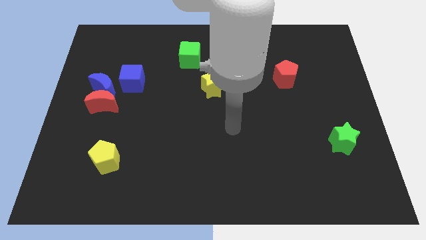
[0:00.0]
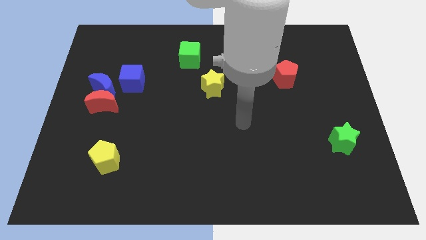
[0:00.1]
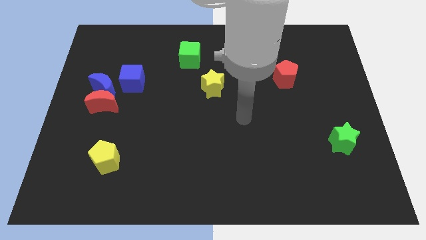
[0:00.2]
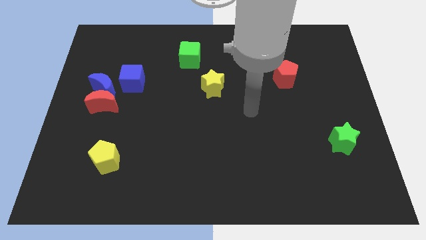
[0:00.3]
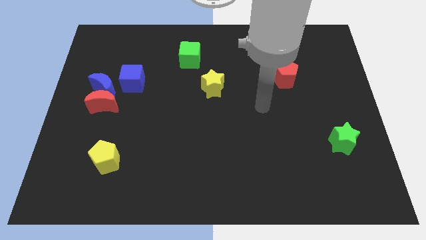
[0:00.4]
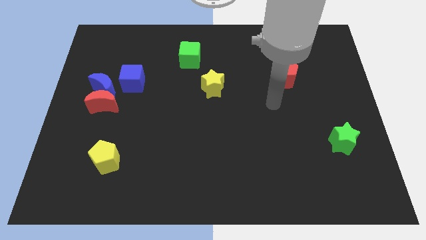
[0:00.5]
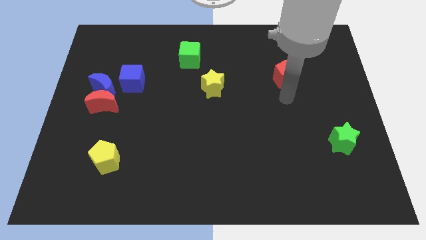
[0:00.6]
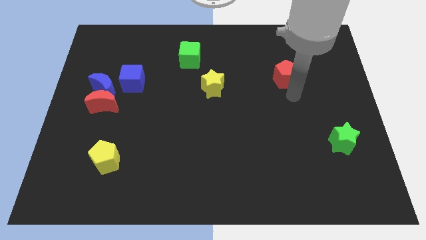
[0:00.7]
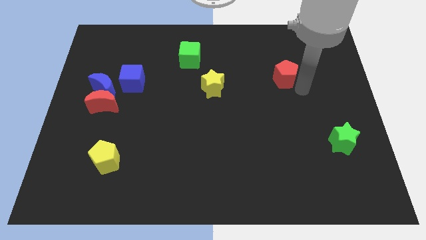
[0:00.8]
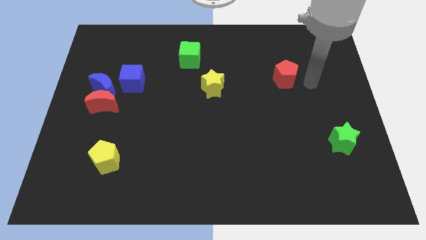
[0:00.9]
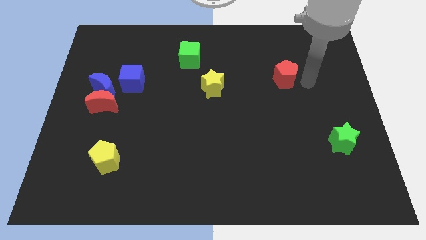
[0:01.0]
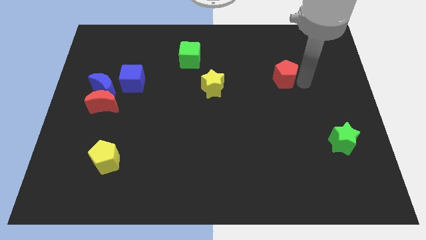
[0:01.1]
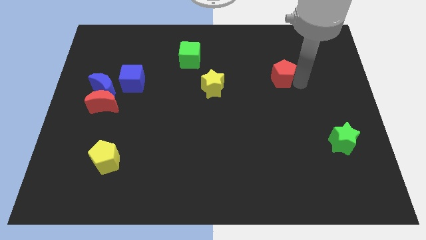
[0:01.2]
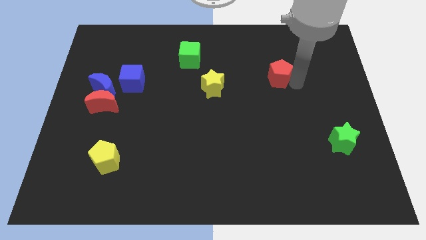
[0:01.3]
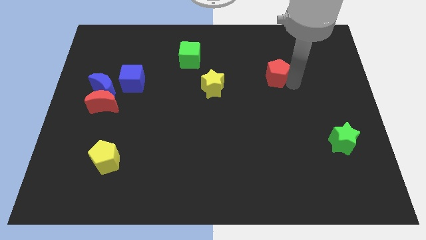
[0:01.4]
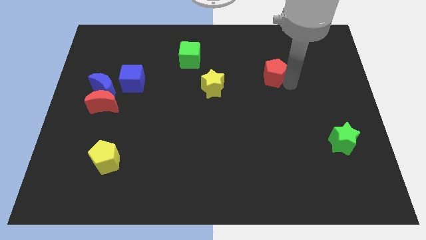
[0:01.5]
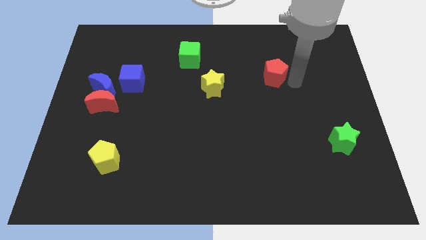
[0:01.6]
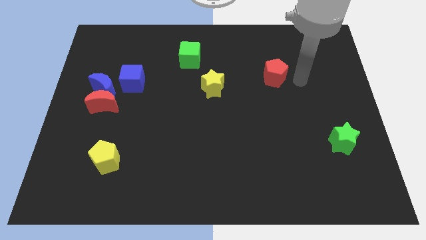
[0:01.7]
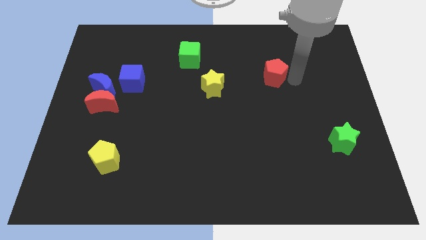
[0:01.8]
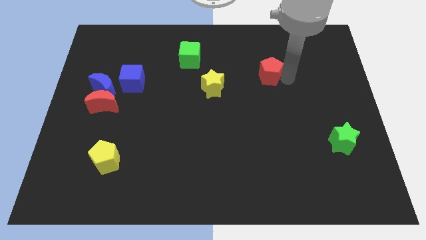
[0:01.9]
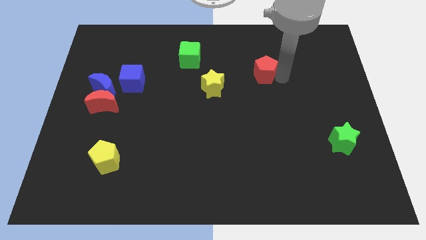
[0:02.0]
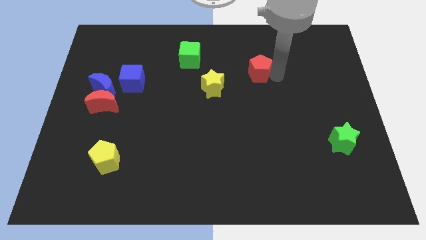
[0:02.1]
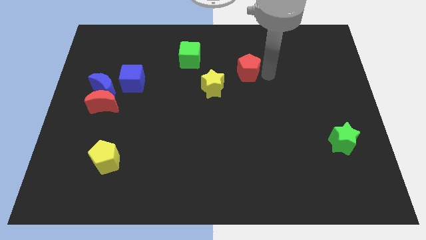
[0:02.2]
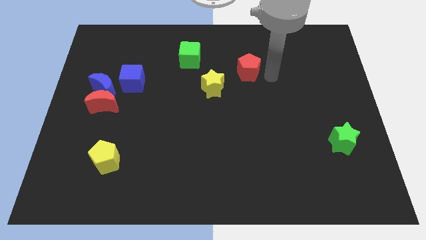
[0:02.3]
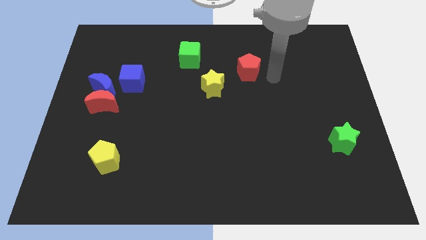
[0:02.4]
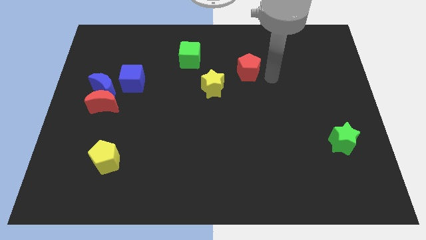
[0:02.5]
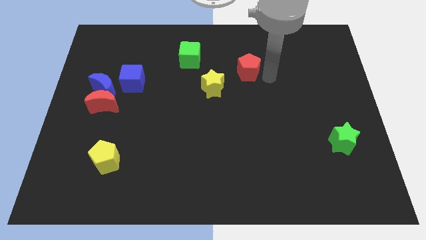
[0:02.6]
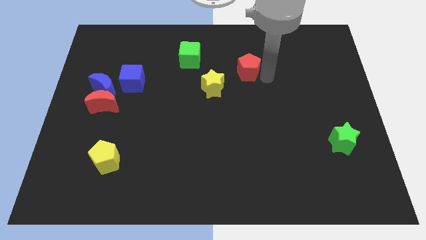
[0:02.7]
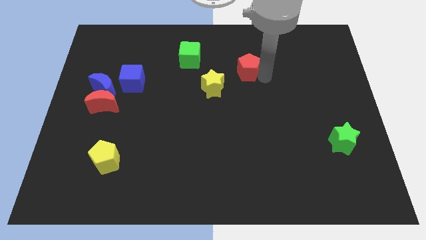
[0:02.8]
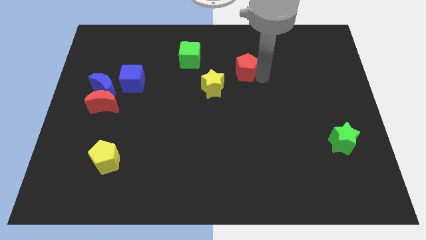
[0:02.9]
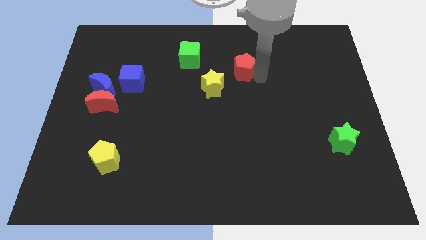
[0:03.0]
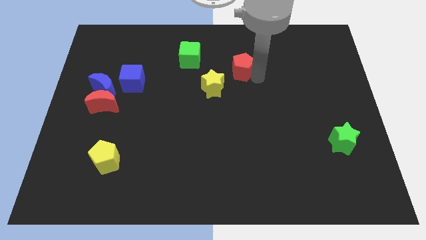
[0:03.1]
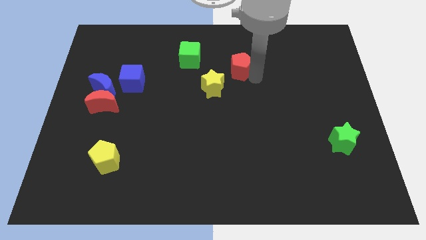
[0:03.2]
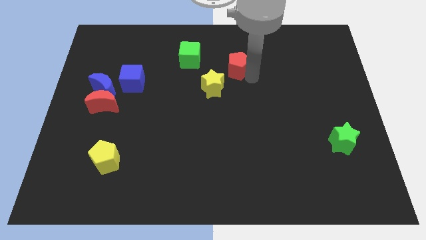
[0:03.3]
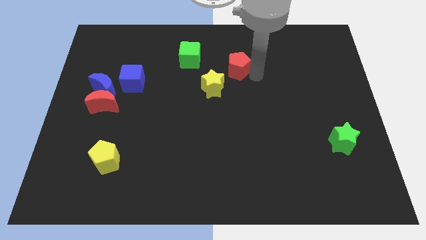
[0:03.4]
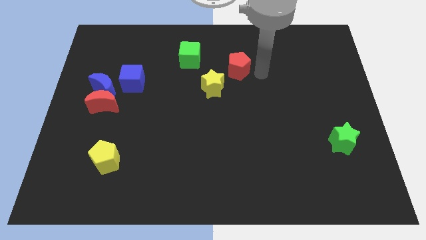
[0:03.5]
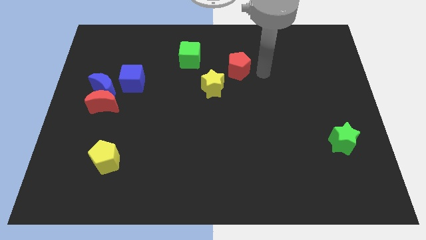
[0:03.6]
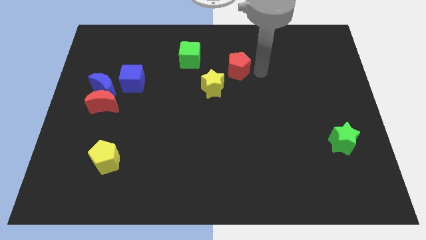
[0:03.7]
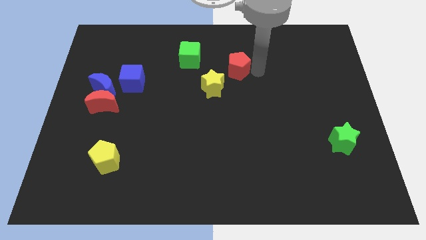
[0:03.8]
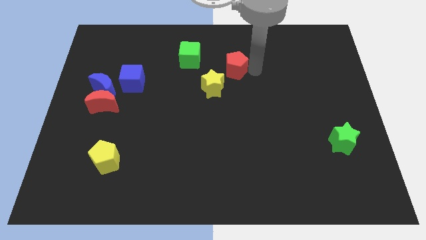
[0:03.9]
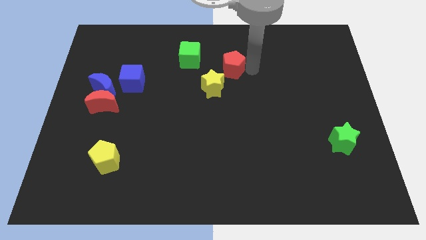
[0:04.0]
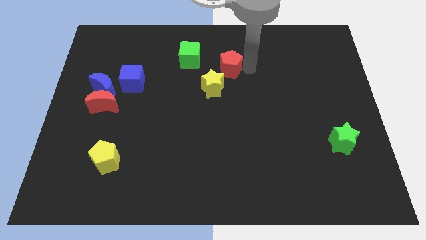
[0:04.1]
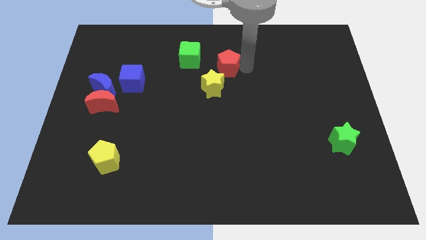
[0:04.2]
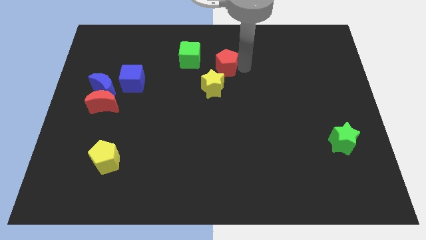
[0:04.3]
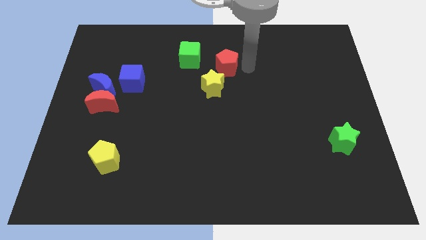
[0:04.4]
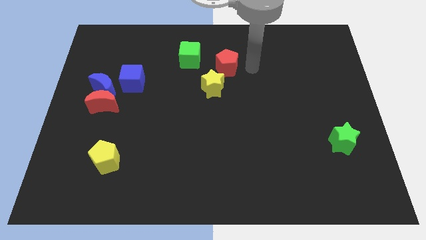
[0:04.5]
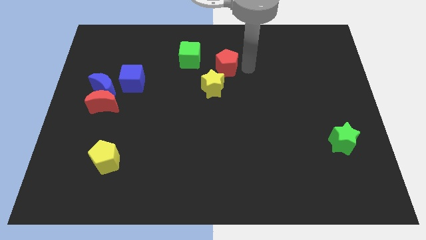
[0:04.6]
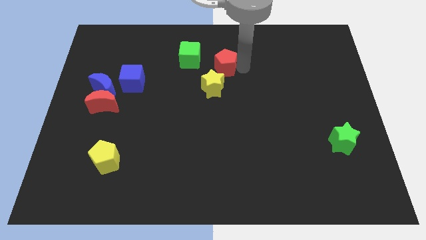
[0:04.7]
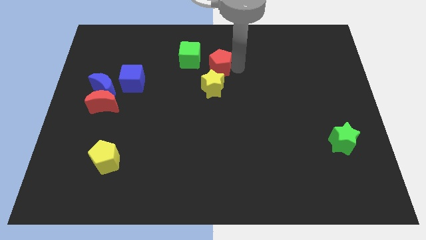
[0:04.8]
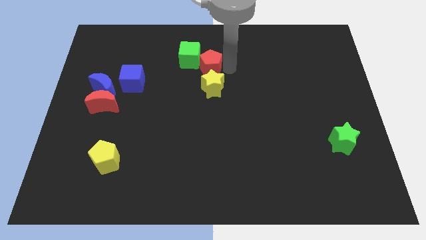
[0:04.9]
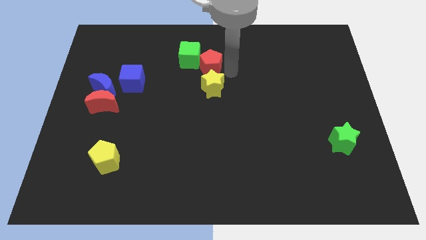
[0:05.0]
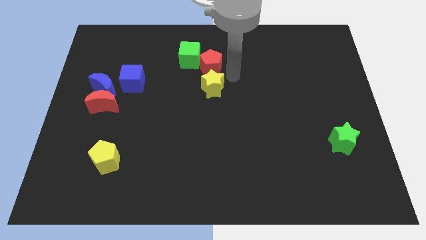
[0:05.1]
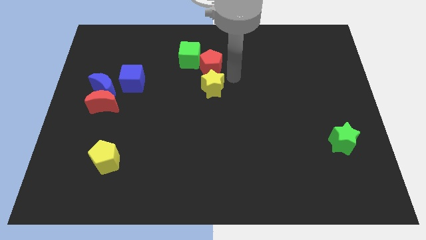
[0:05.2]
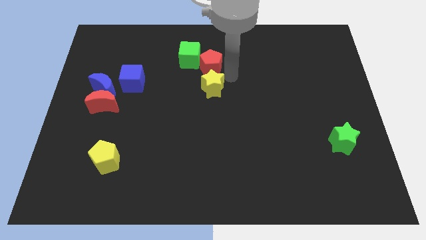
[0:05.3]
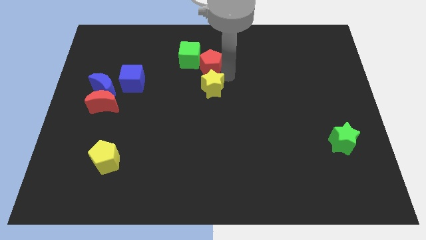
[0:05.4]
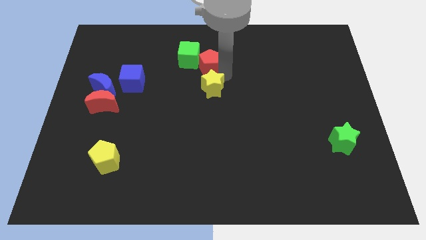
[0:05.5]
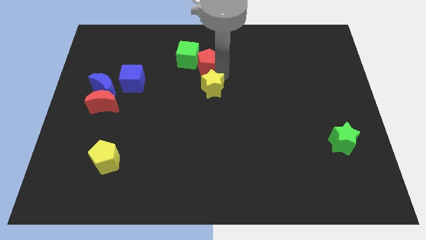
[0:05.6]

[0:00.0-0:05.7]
put the red pentagon next to the green cube

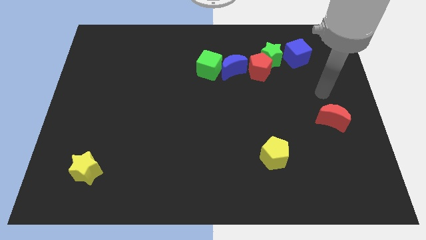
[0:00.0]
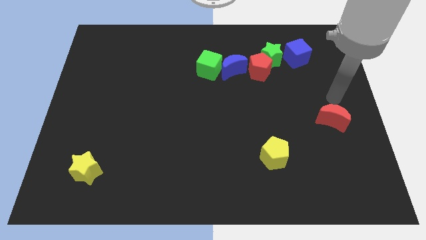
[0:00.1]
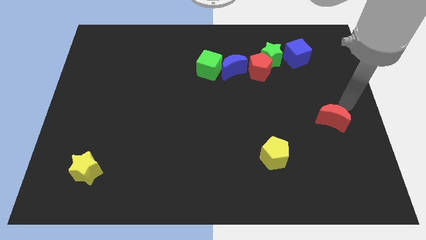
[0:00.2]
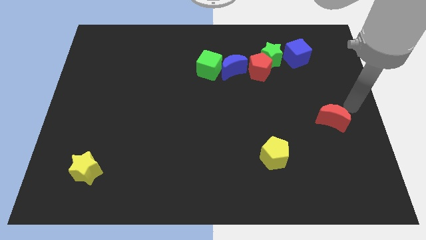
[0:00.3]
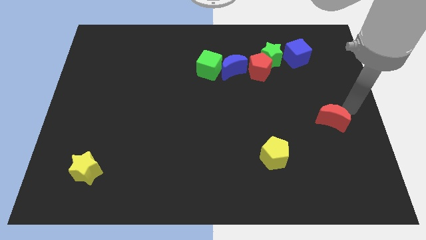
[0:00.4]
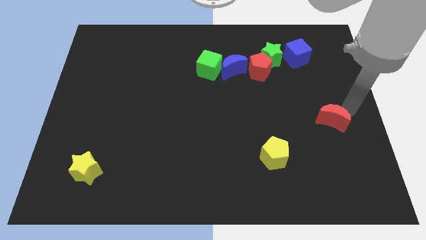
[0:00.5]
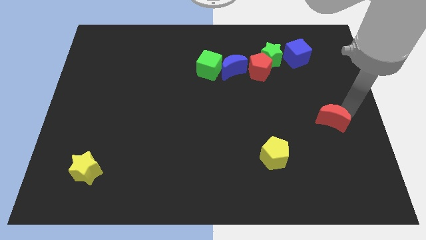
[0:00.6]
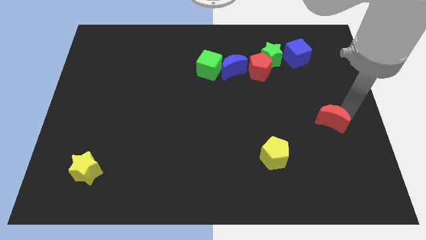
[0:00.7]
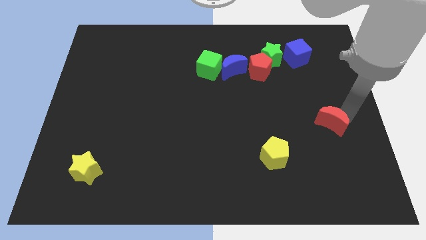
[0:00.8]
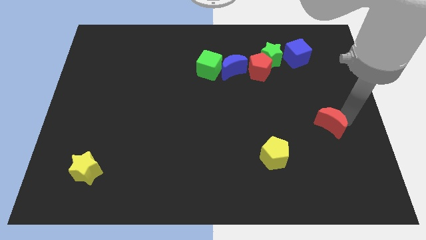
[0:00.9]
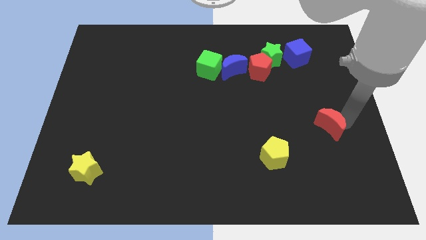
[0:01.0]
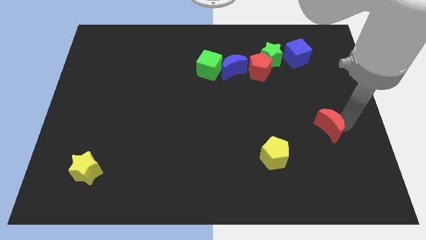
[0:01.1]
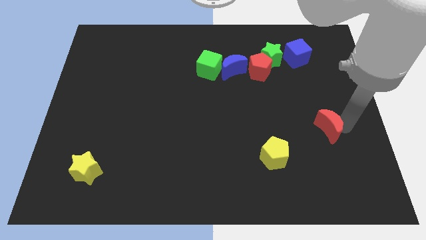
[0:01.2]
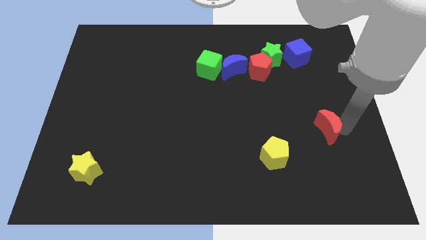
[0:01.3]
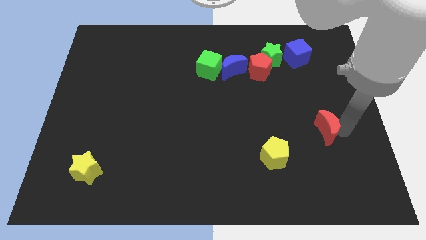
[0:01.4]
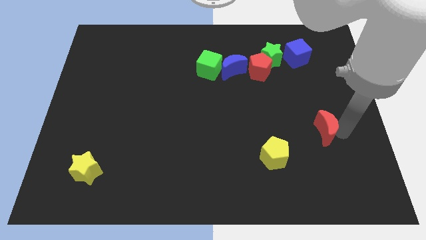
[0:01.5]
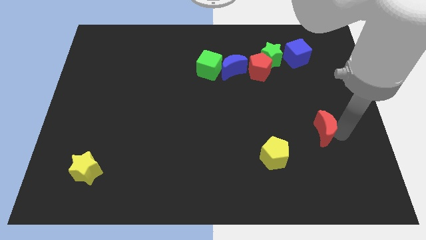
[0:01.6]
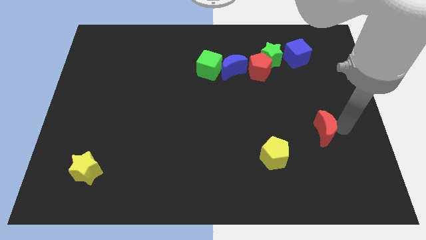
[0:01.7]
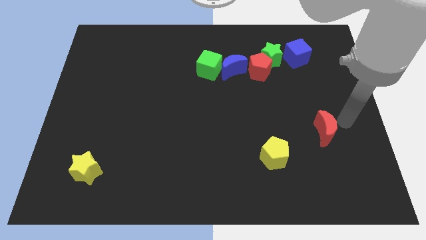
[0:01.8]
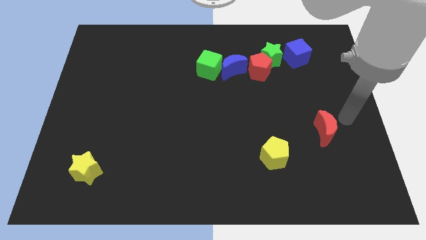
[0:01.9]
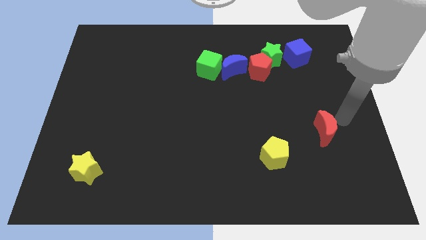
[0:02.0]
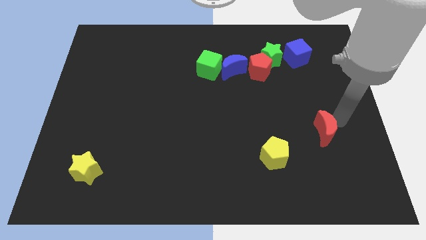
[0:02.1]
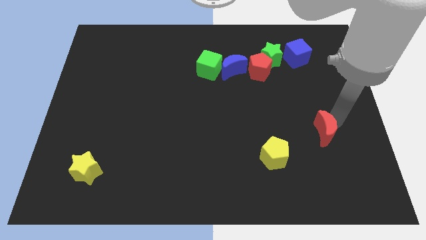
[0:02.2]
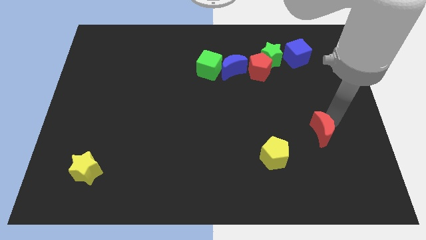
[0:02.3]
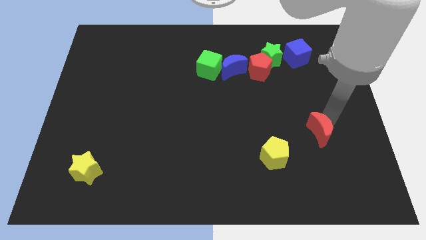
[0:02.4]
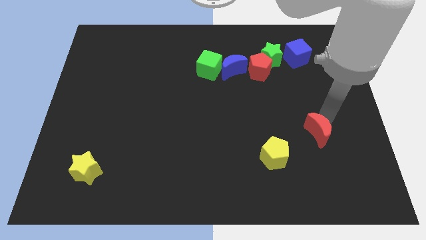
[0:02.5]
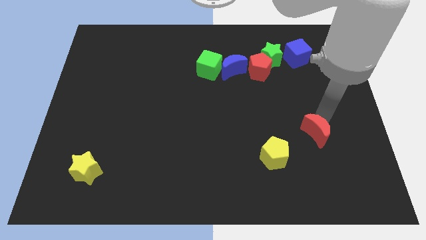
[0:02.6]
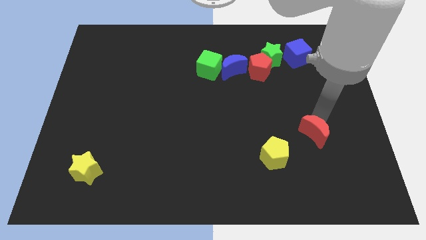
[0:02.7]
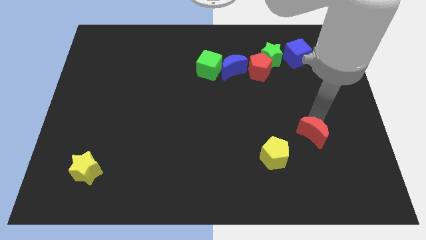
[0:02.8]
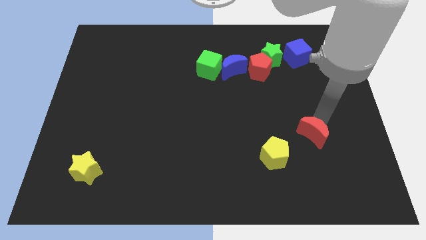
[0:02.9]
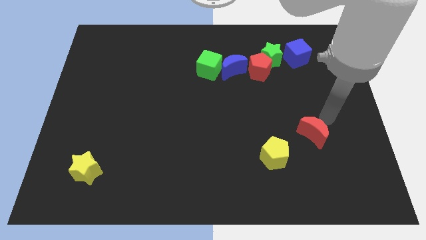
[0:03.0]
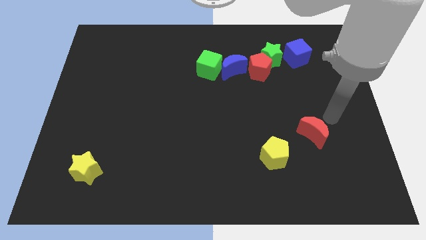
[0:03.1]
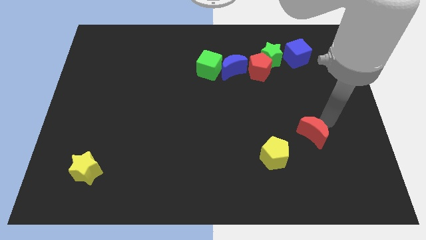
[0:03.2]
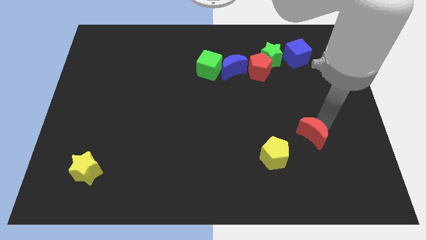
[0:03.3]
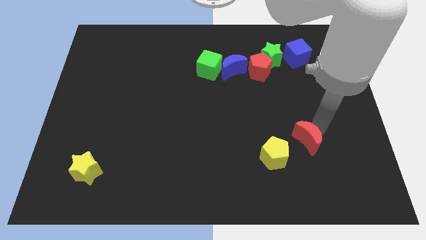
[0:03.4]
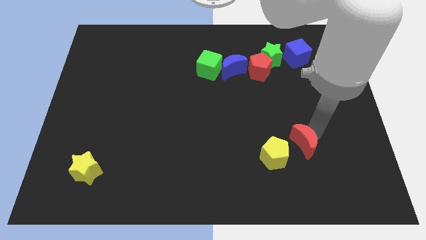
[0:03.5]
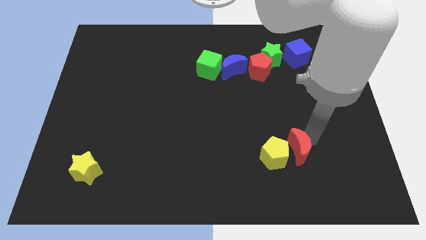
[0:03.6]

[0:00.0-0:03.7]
put the red moon next to the yellow pentagon
